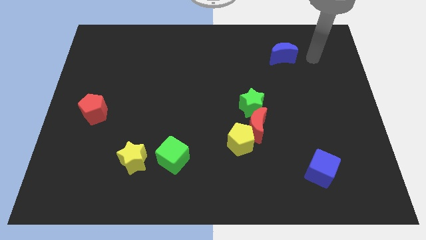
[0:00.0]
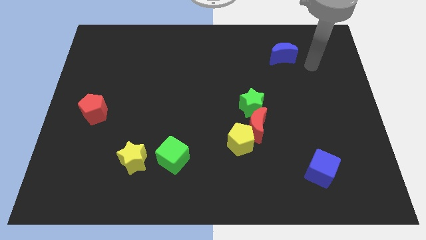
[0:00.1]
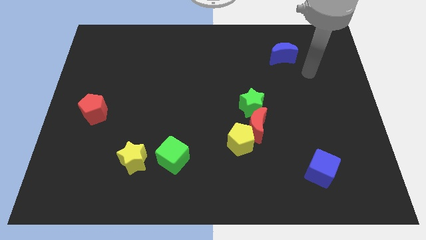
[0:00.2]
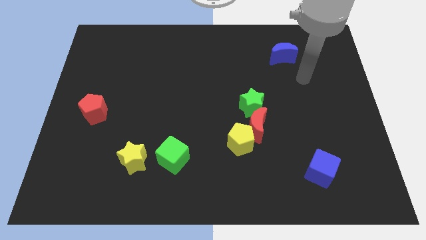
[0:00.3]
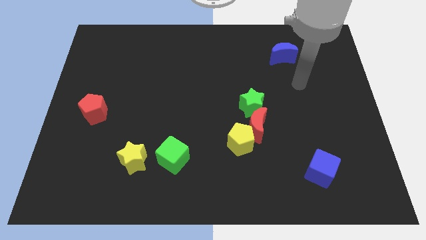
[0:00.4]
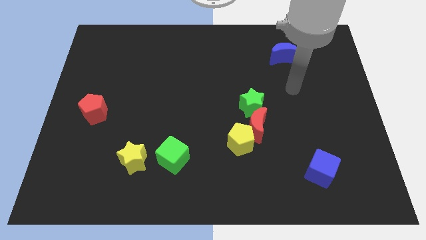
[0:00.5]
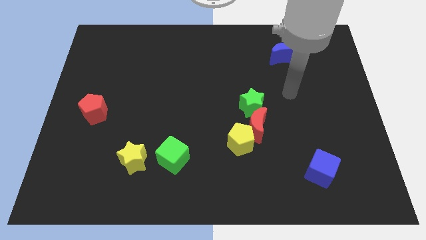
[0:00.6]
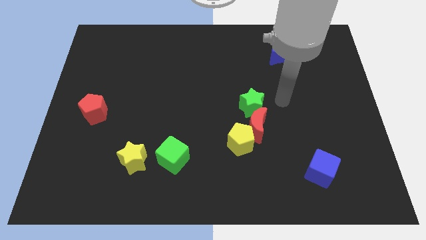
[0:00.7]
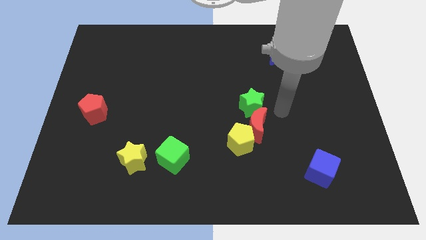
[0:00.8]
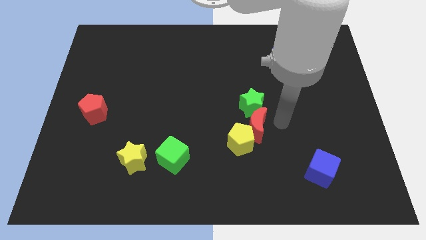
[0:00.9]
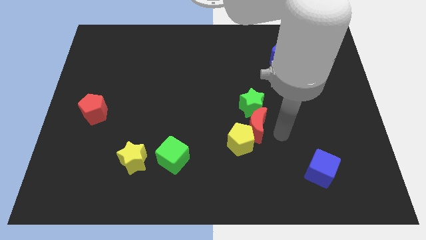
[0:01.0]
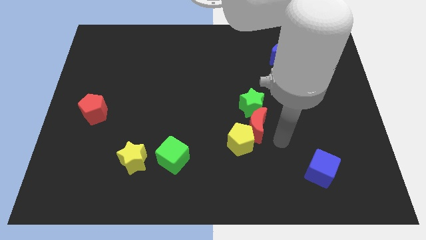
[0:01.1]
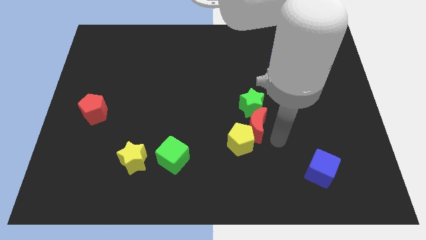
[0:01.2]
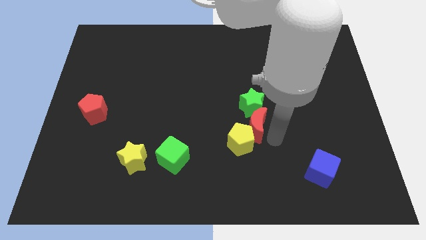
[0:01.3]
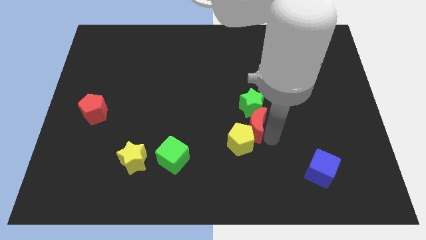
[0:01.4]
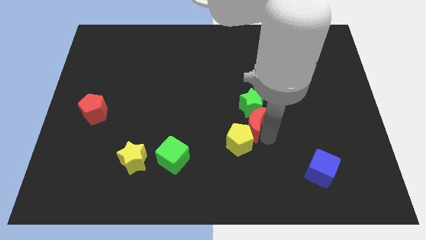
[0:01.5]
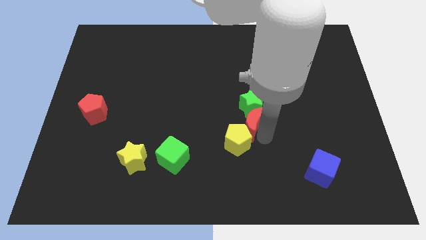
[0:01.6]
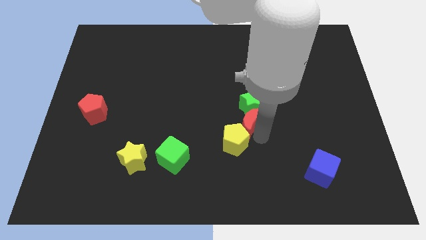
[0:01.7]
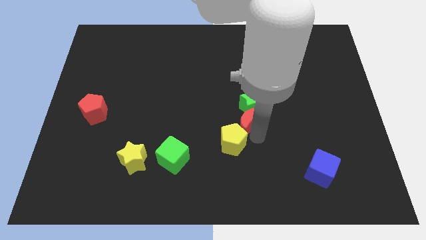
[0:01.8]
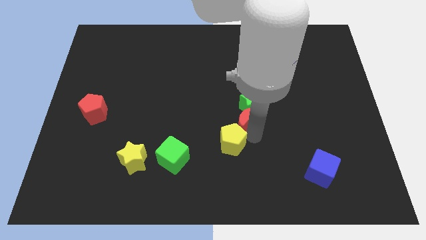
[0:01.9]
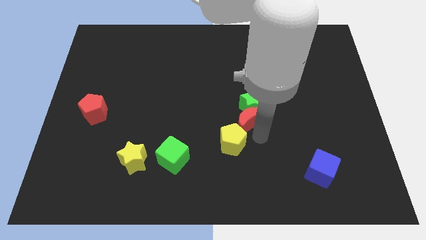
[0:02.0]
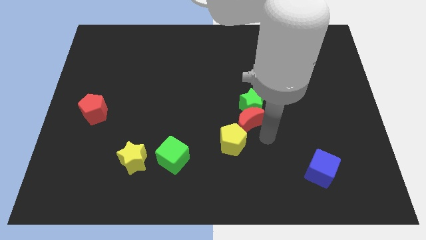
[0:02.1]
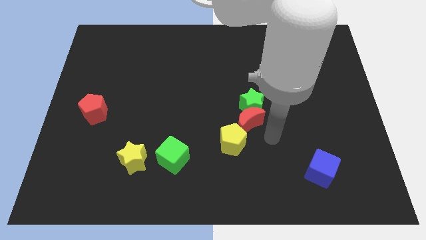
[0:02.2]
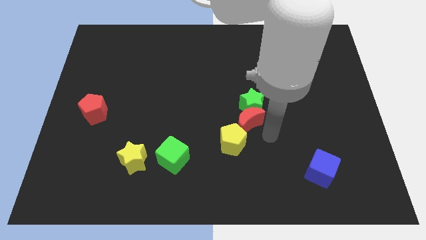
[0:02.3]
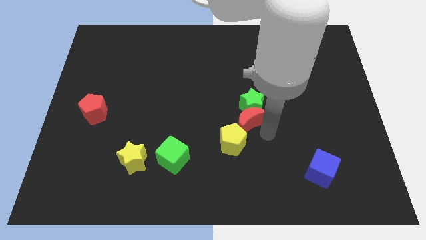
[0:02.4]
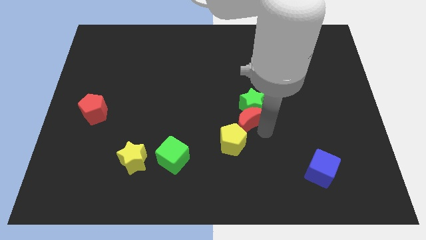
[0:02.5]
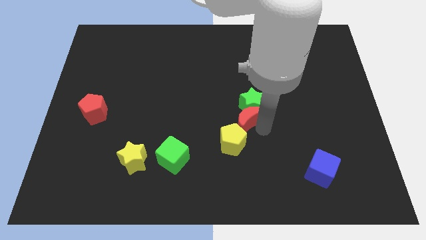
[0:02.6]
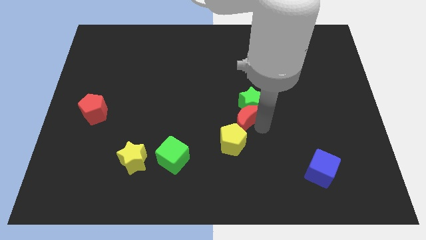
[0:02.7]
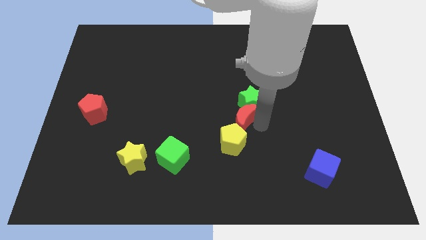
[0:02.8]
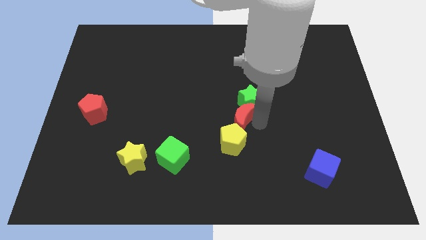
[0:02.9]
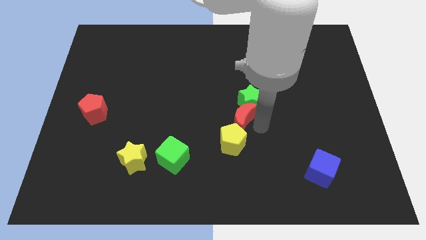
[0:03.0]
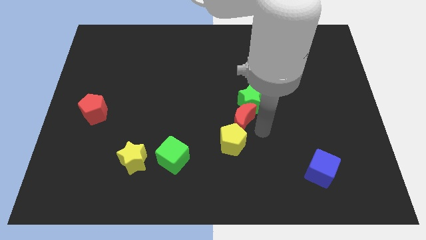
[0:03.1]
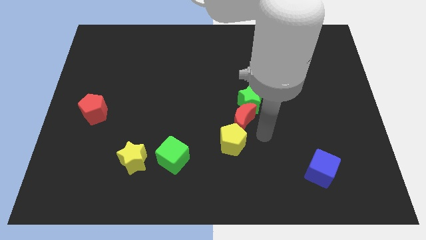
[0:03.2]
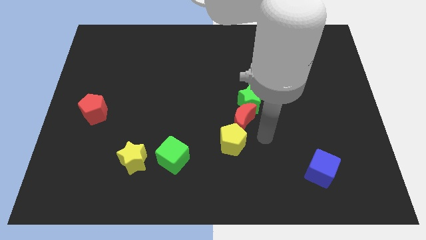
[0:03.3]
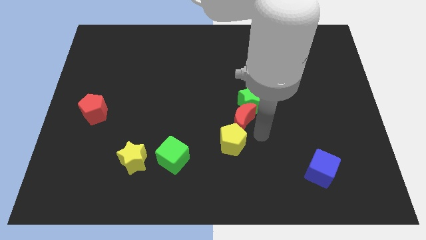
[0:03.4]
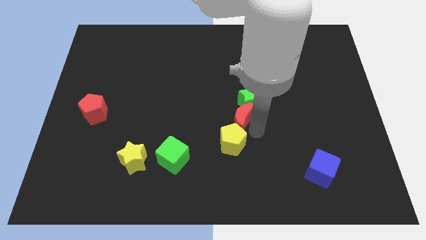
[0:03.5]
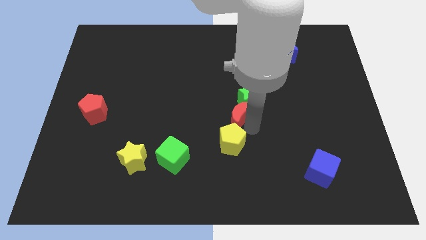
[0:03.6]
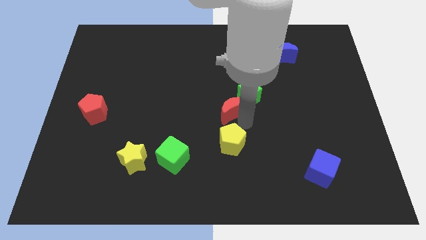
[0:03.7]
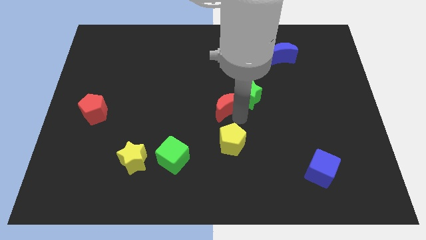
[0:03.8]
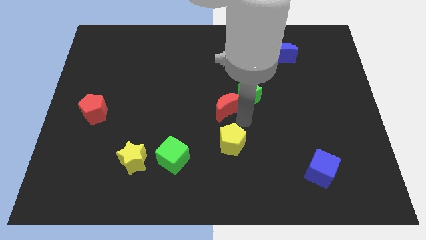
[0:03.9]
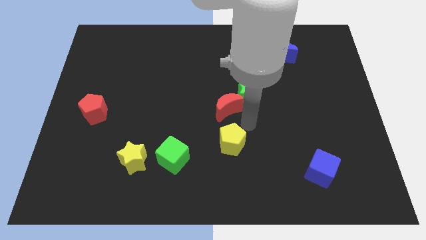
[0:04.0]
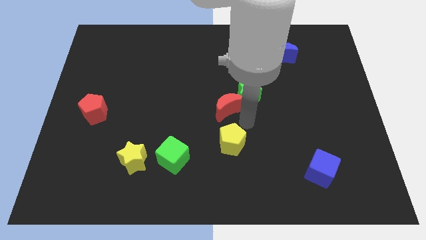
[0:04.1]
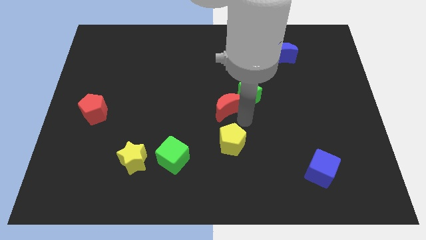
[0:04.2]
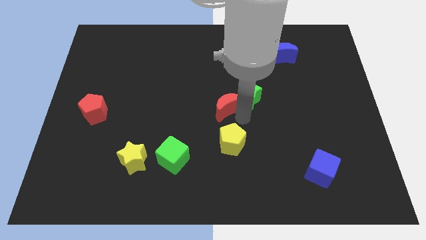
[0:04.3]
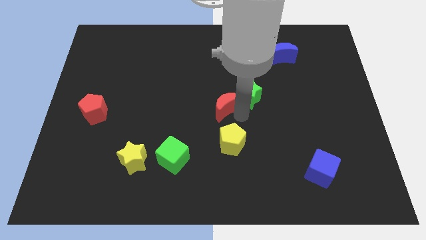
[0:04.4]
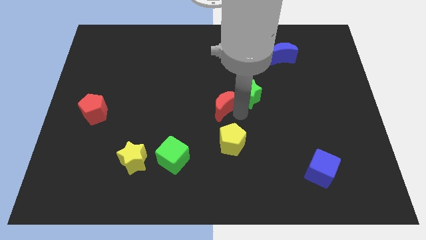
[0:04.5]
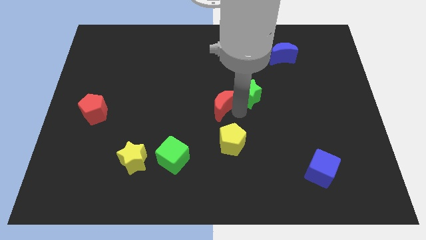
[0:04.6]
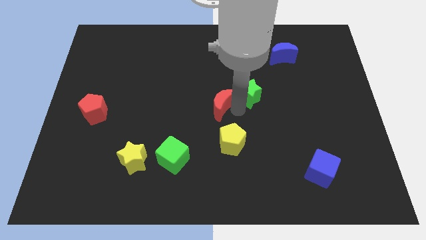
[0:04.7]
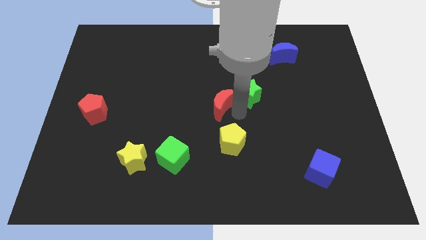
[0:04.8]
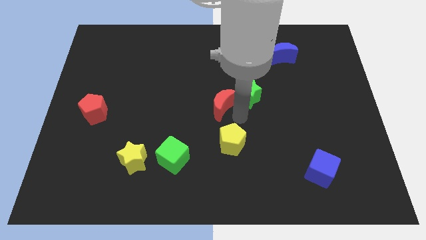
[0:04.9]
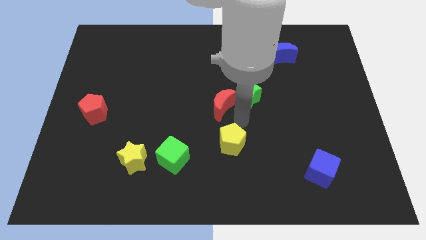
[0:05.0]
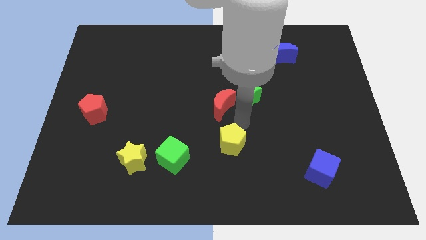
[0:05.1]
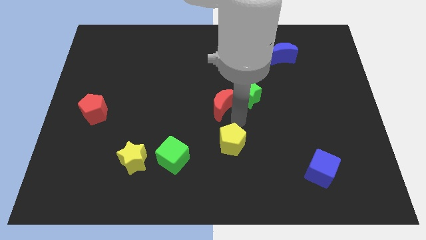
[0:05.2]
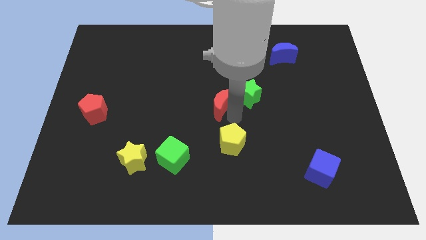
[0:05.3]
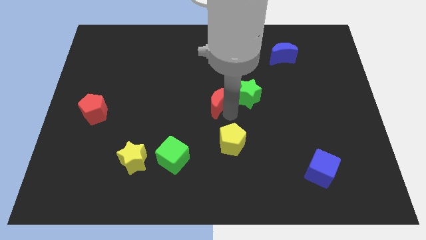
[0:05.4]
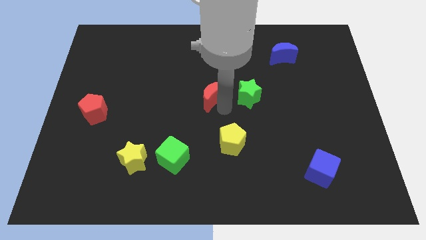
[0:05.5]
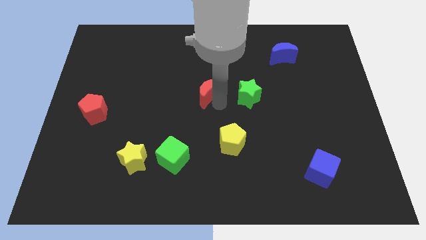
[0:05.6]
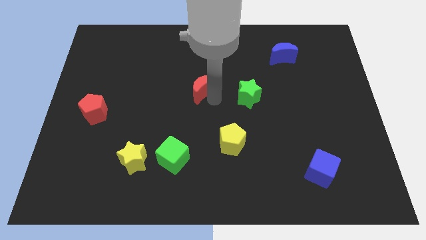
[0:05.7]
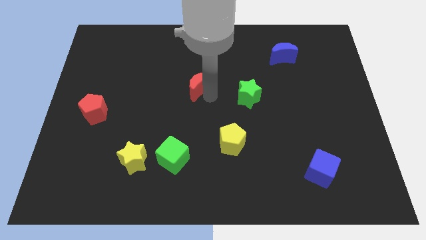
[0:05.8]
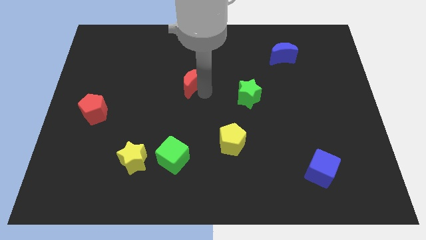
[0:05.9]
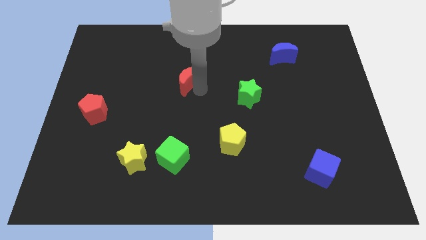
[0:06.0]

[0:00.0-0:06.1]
slide the red moon upwards and to the left diagonally

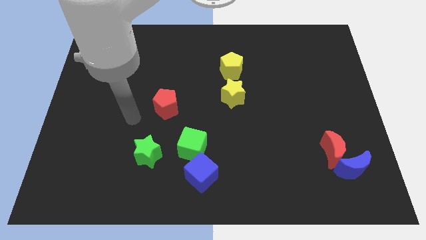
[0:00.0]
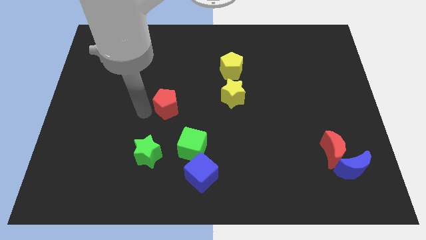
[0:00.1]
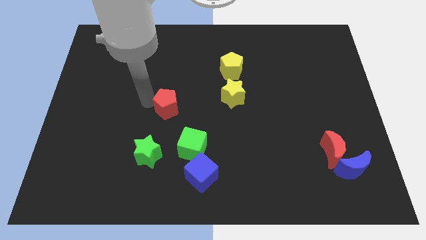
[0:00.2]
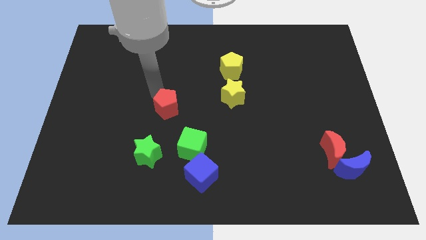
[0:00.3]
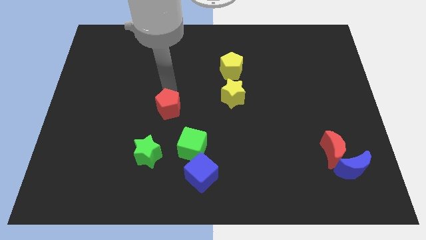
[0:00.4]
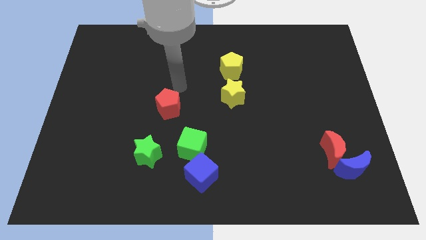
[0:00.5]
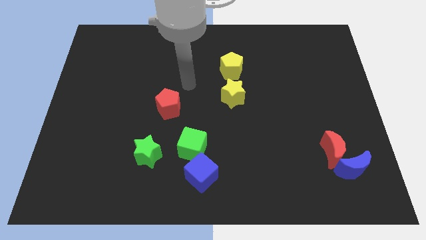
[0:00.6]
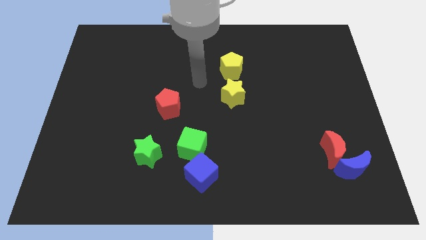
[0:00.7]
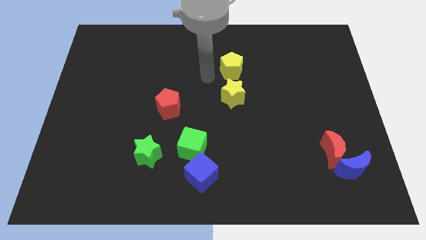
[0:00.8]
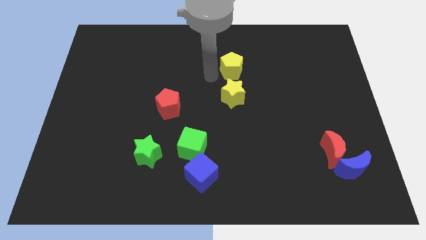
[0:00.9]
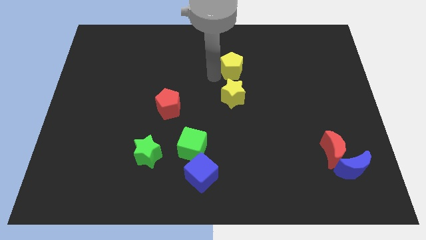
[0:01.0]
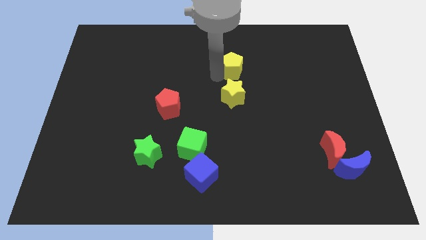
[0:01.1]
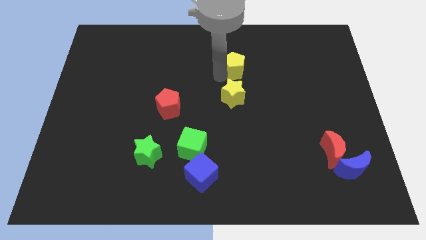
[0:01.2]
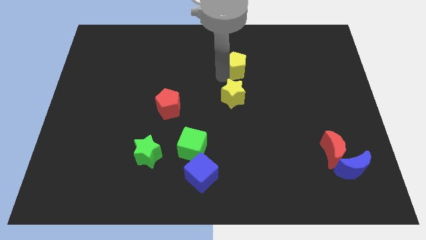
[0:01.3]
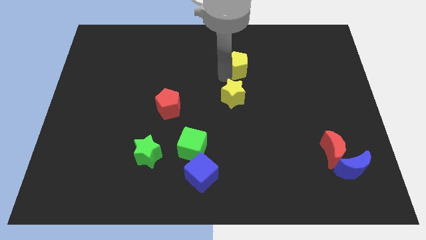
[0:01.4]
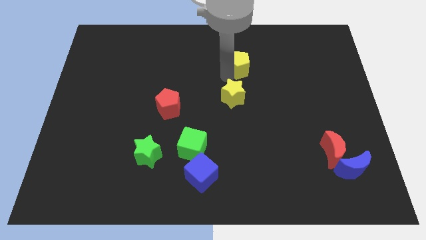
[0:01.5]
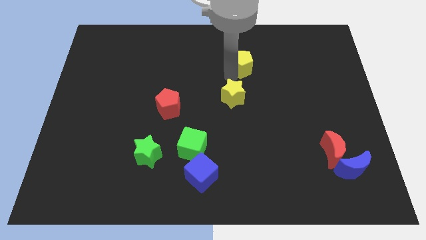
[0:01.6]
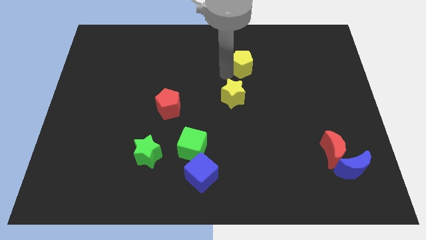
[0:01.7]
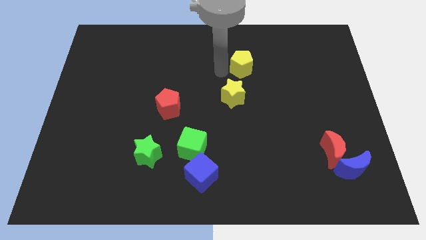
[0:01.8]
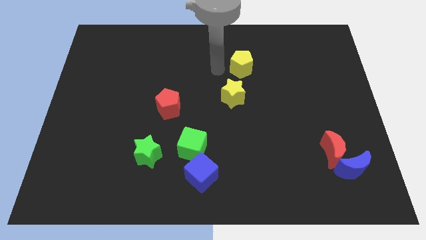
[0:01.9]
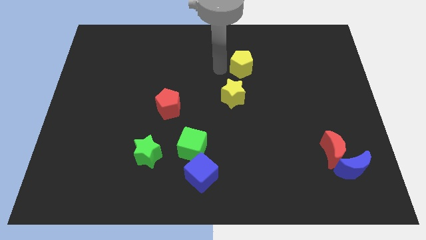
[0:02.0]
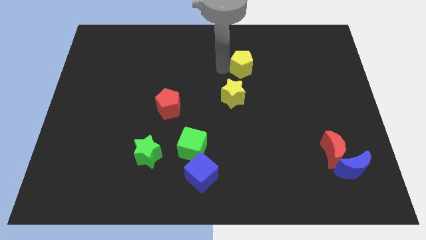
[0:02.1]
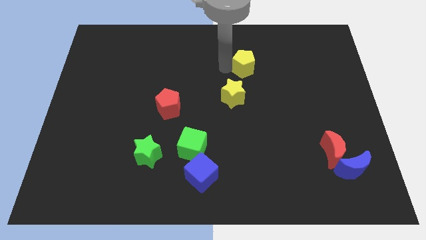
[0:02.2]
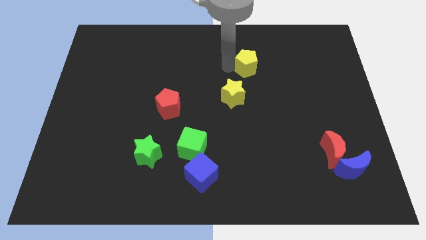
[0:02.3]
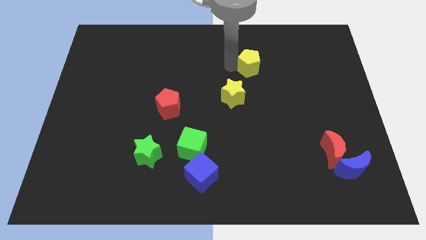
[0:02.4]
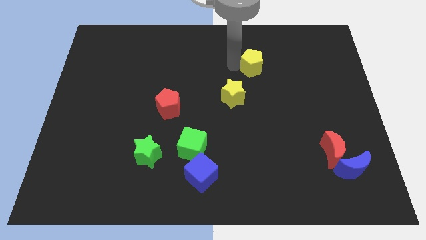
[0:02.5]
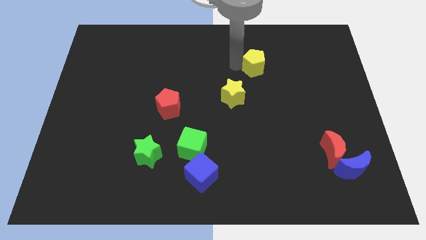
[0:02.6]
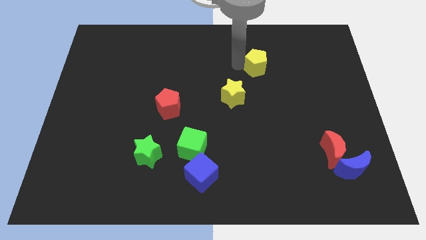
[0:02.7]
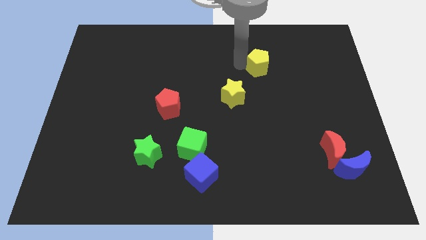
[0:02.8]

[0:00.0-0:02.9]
slide the yellow pentagon to the right a little
